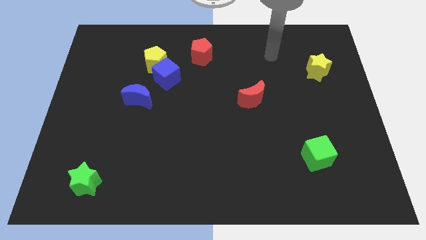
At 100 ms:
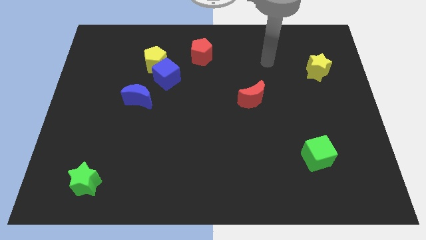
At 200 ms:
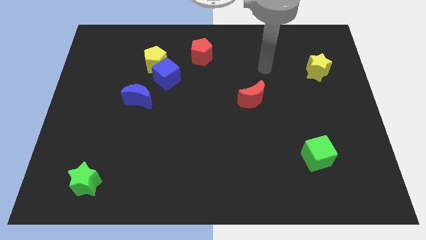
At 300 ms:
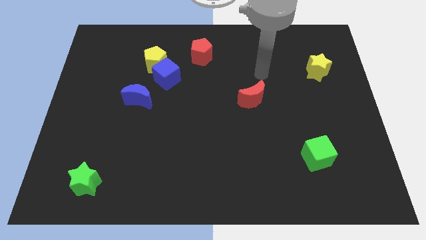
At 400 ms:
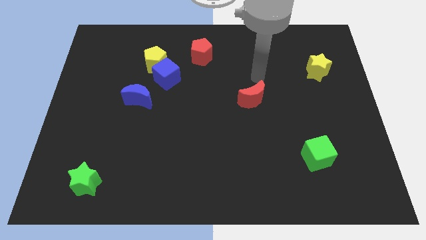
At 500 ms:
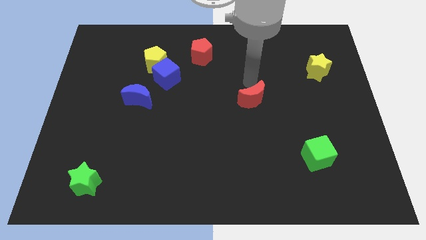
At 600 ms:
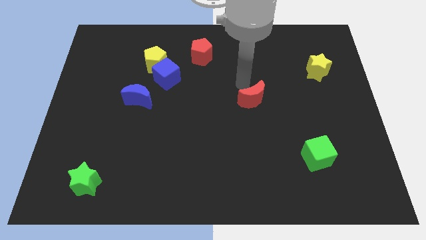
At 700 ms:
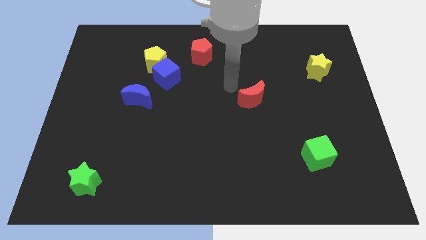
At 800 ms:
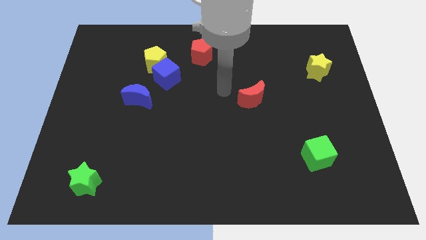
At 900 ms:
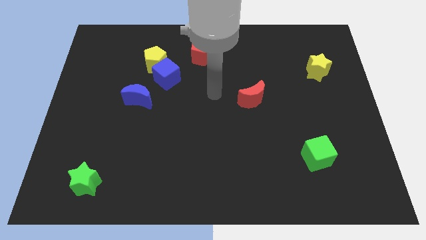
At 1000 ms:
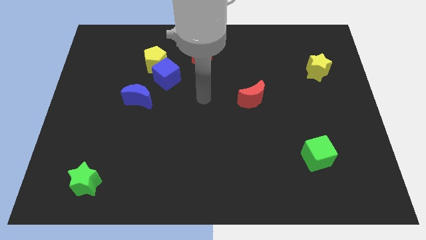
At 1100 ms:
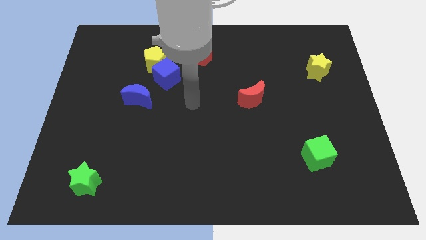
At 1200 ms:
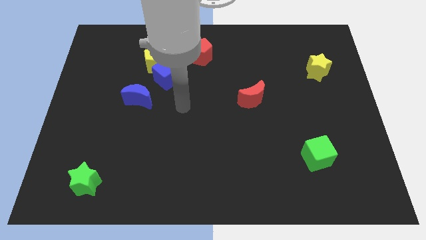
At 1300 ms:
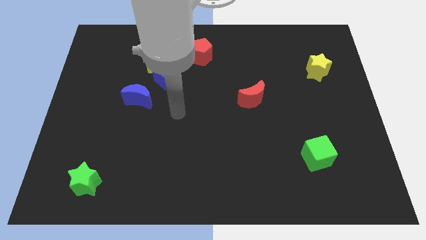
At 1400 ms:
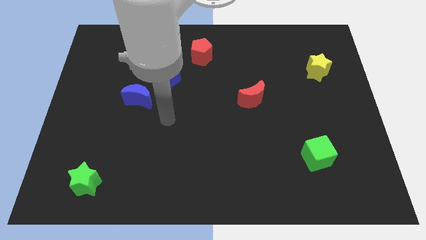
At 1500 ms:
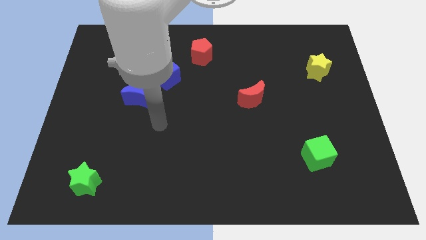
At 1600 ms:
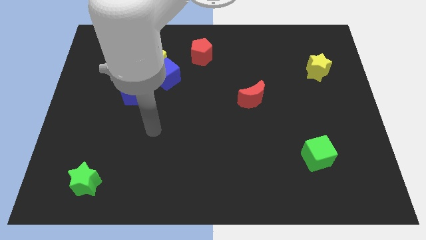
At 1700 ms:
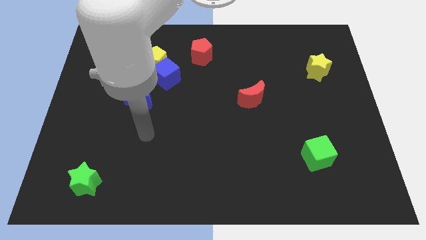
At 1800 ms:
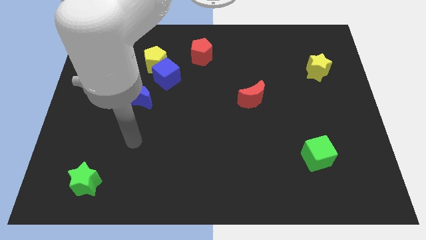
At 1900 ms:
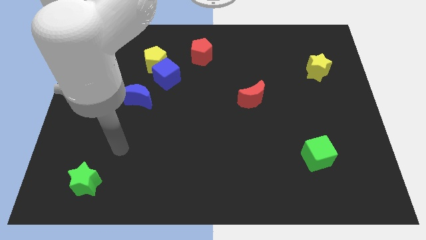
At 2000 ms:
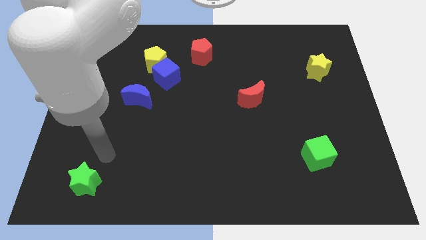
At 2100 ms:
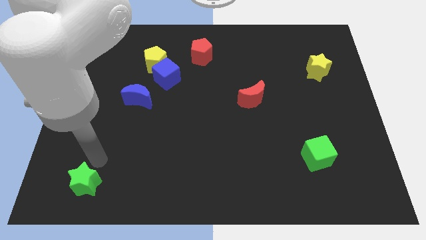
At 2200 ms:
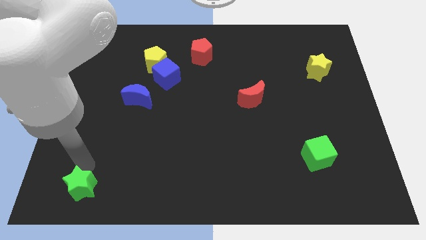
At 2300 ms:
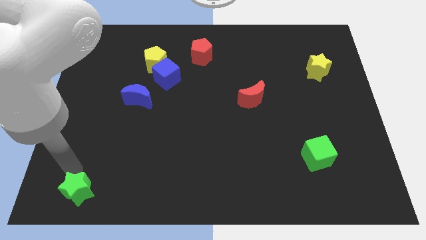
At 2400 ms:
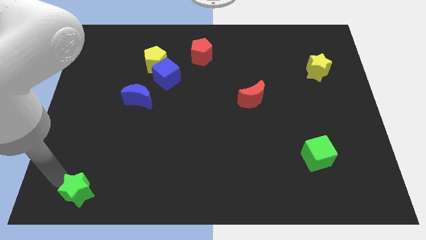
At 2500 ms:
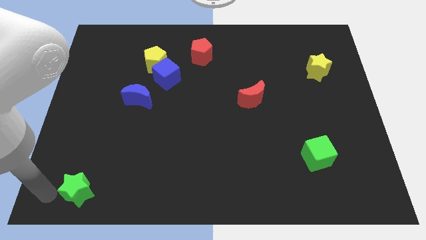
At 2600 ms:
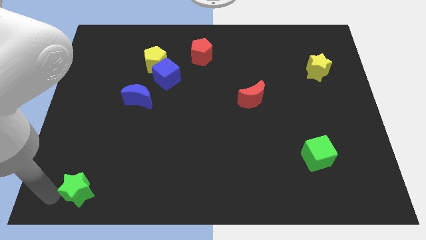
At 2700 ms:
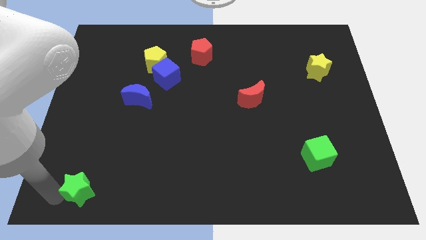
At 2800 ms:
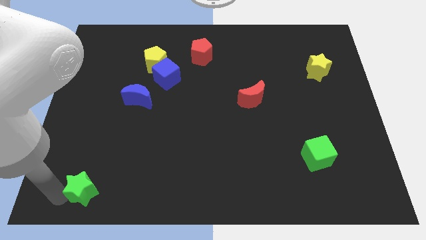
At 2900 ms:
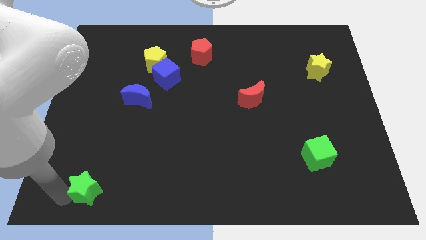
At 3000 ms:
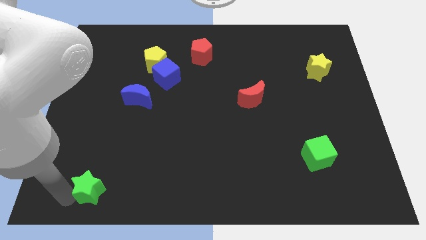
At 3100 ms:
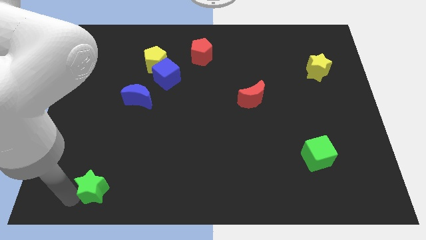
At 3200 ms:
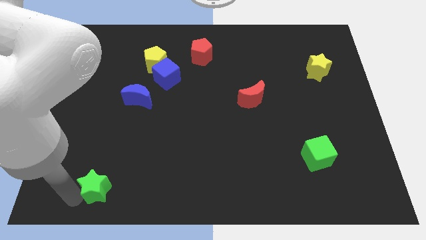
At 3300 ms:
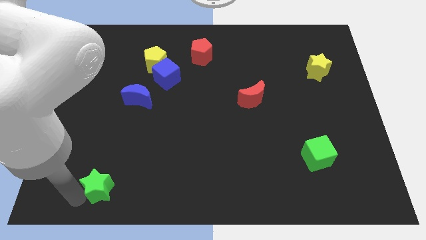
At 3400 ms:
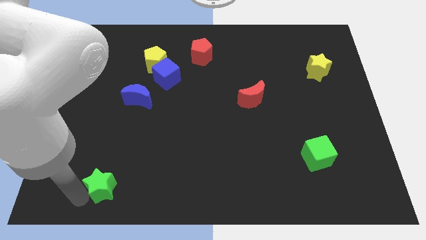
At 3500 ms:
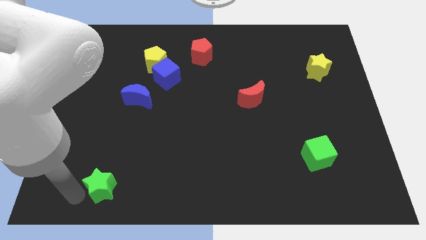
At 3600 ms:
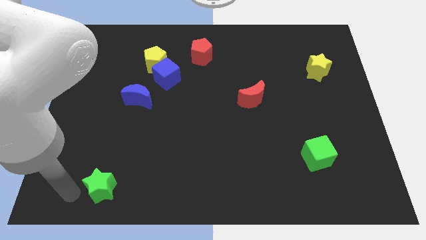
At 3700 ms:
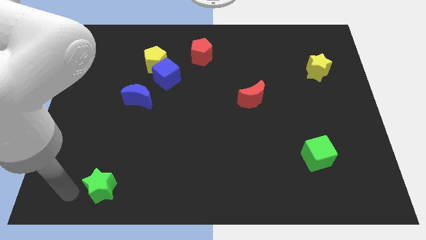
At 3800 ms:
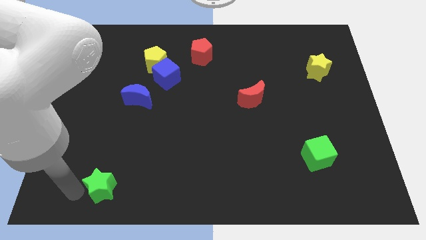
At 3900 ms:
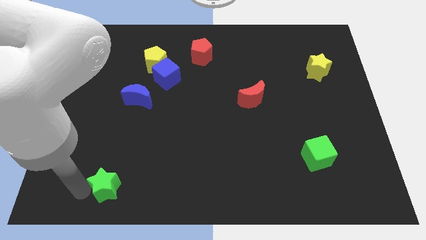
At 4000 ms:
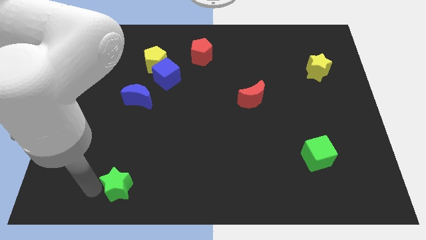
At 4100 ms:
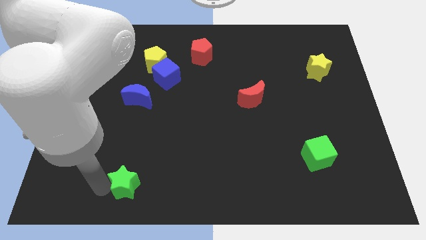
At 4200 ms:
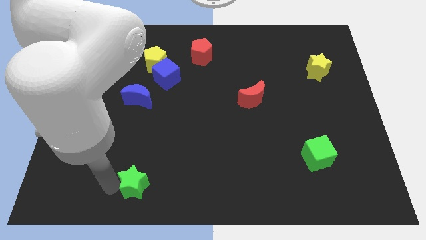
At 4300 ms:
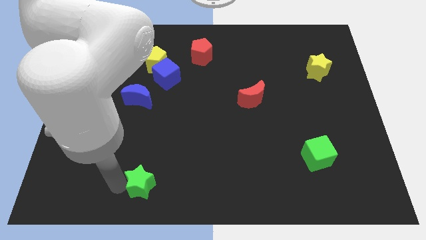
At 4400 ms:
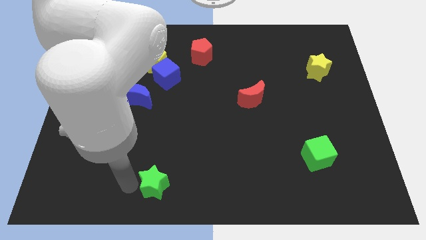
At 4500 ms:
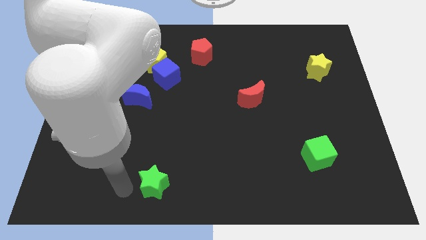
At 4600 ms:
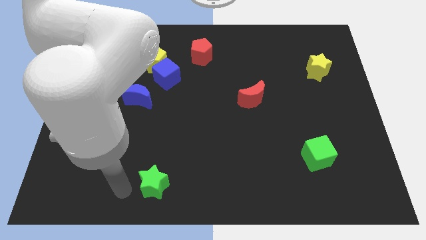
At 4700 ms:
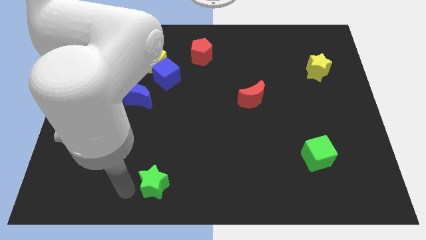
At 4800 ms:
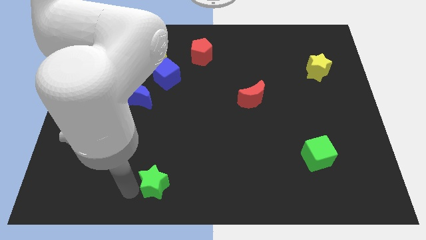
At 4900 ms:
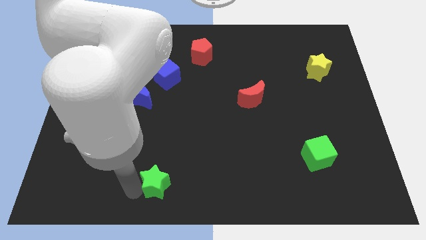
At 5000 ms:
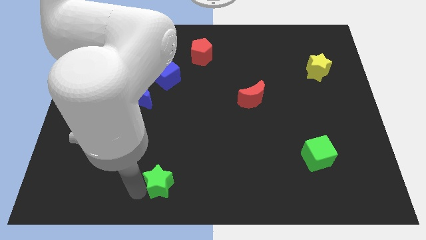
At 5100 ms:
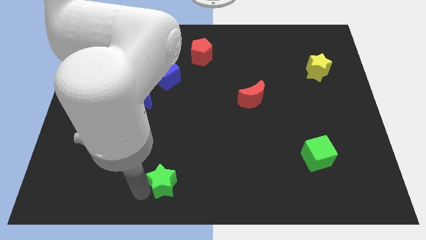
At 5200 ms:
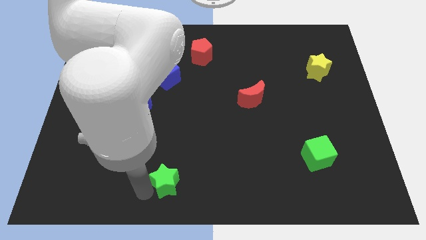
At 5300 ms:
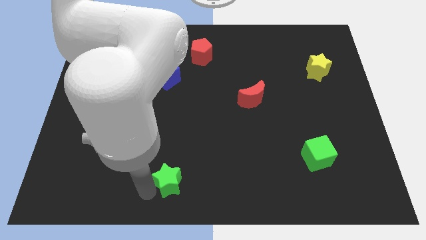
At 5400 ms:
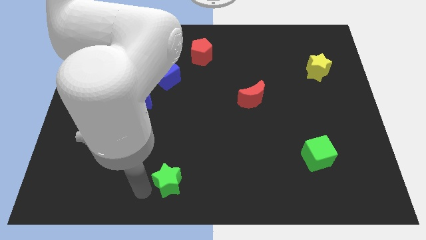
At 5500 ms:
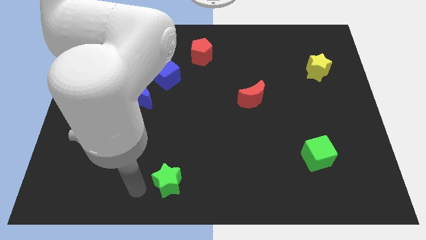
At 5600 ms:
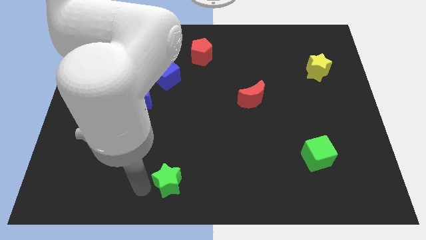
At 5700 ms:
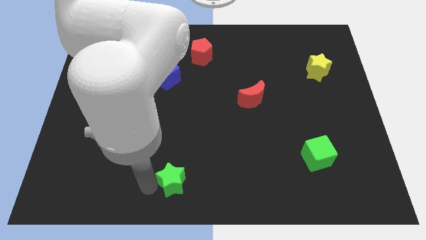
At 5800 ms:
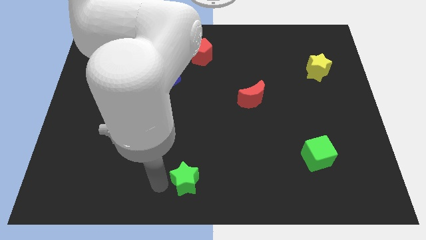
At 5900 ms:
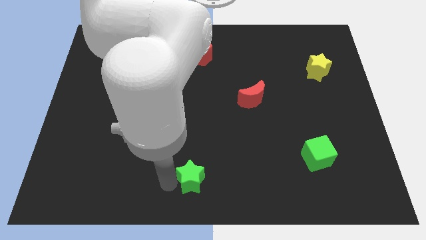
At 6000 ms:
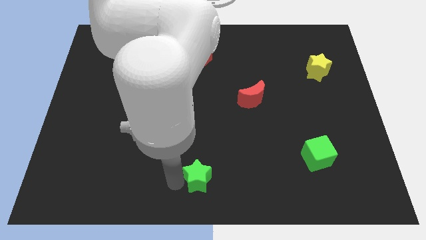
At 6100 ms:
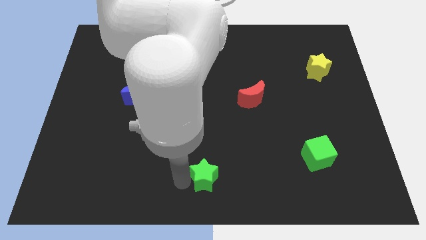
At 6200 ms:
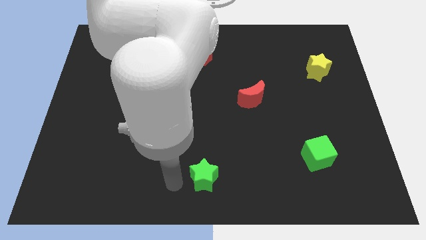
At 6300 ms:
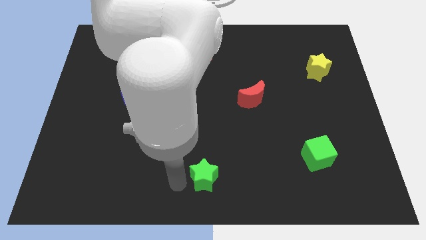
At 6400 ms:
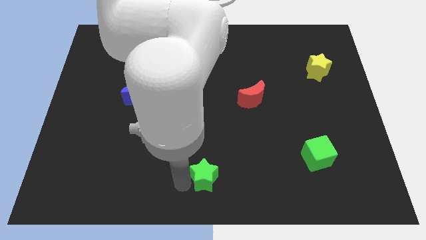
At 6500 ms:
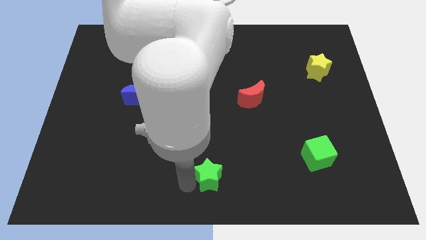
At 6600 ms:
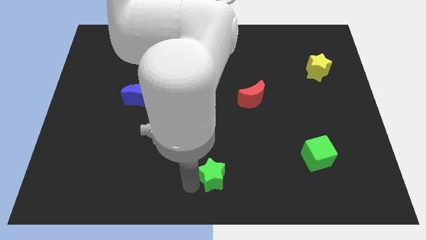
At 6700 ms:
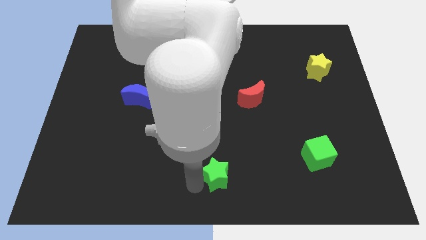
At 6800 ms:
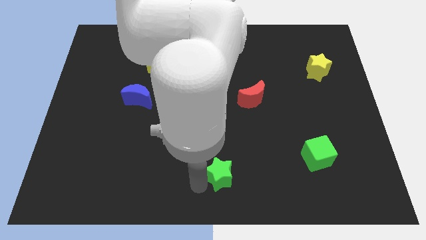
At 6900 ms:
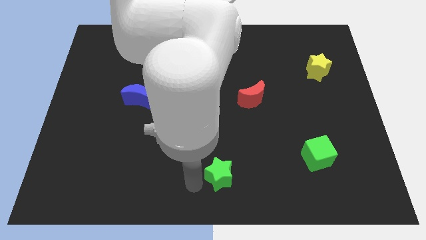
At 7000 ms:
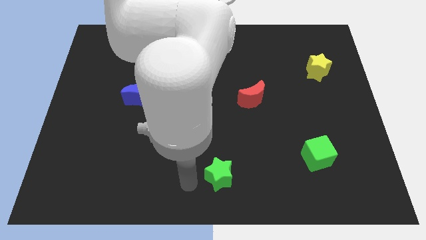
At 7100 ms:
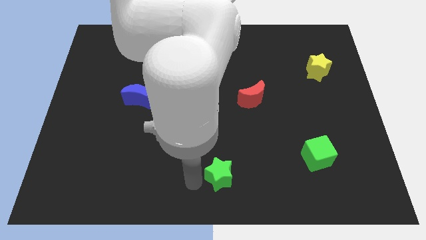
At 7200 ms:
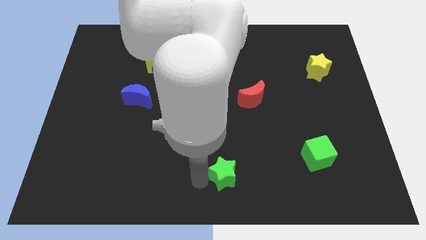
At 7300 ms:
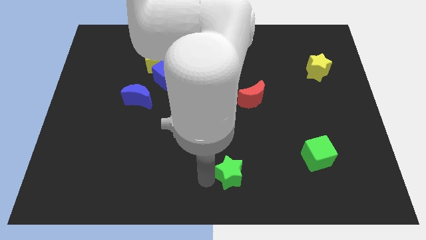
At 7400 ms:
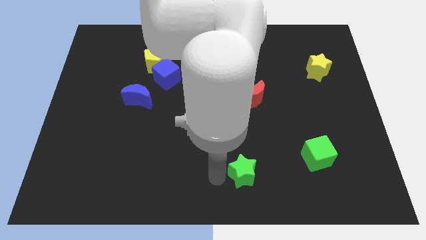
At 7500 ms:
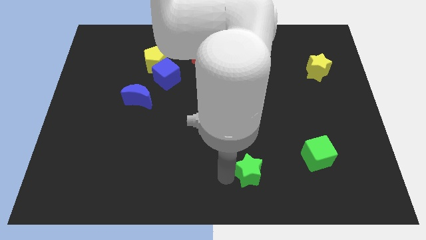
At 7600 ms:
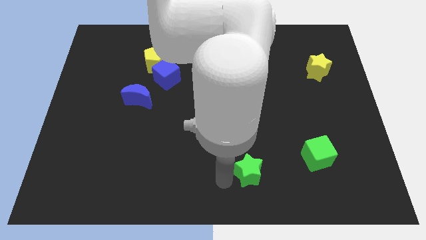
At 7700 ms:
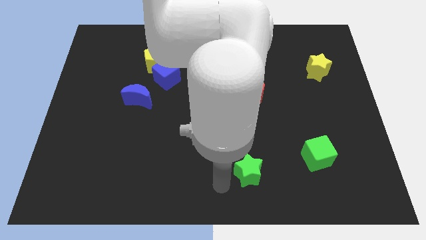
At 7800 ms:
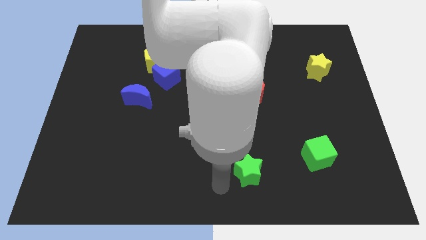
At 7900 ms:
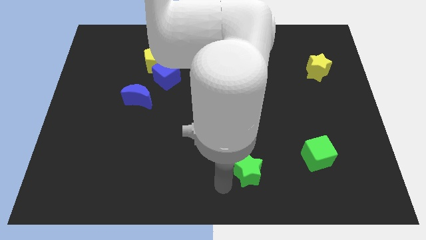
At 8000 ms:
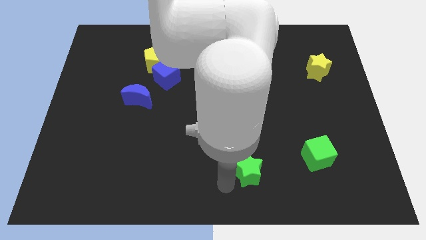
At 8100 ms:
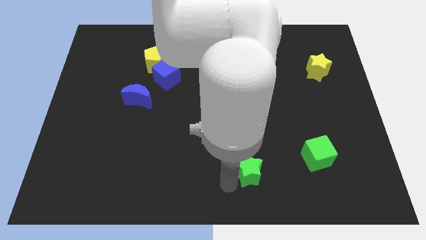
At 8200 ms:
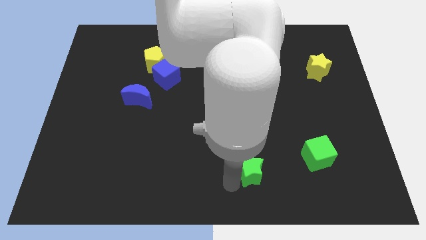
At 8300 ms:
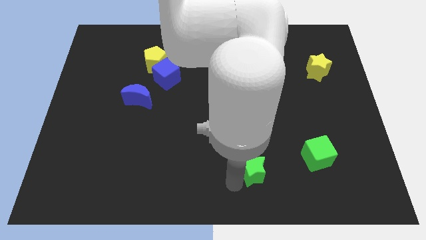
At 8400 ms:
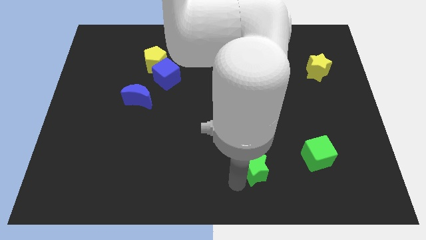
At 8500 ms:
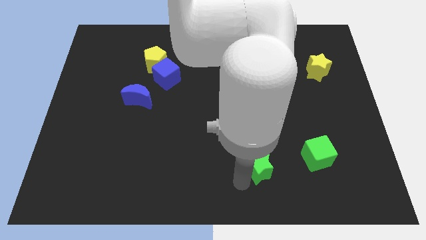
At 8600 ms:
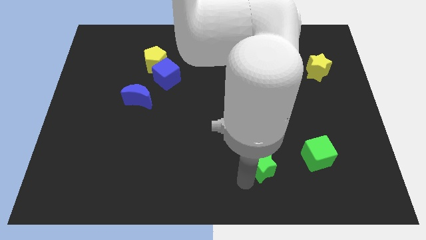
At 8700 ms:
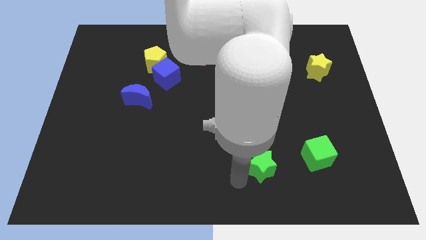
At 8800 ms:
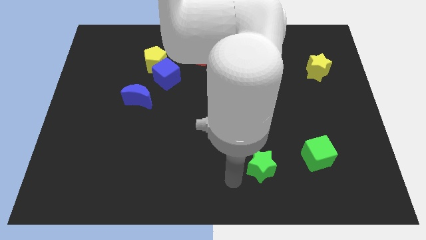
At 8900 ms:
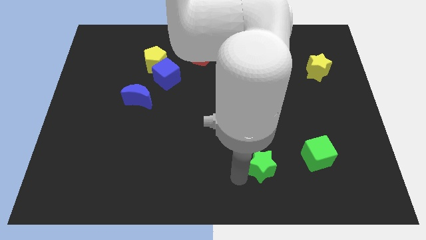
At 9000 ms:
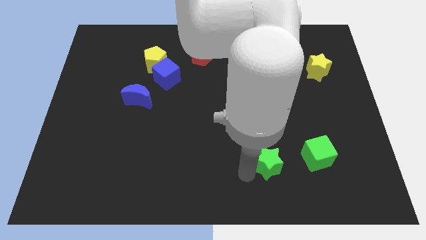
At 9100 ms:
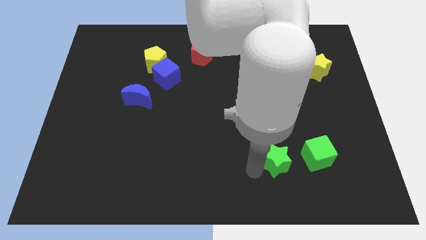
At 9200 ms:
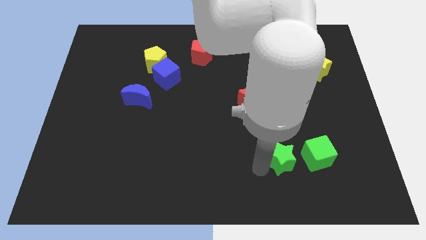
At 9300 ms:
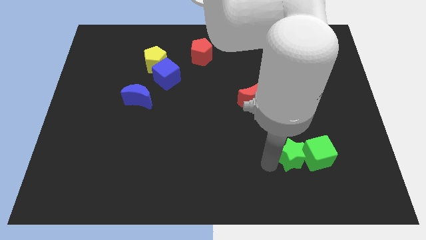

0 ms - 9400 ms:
slide the green star to the green cube
